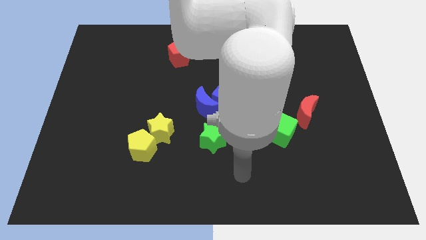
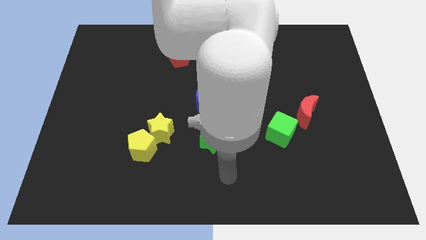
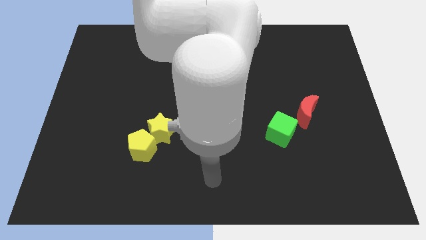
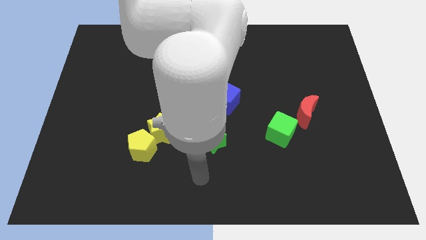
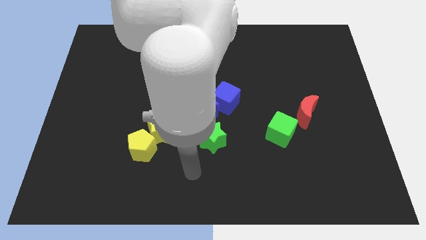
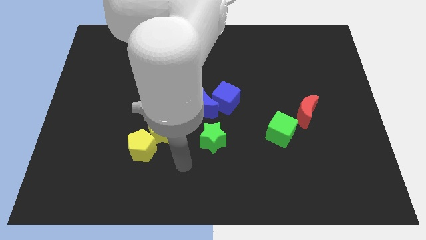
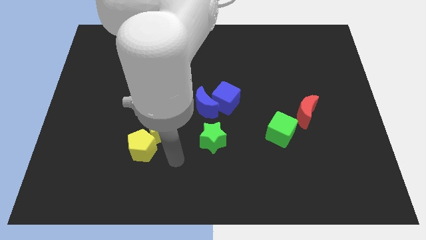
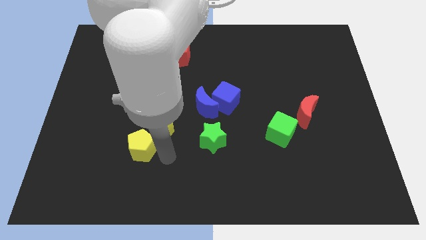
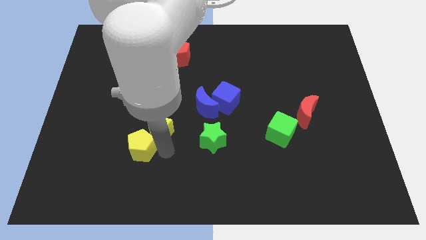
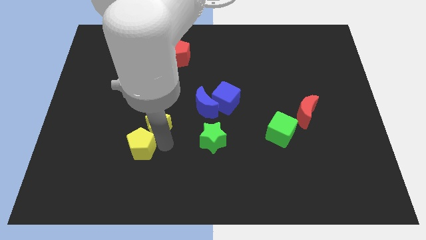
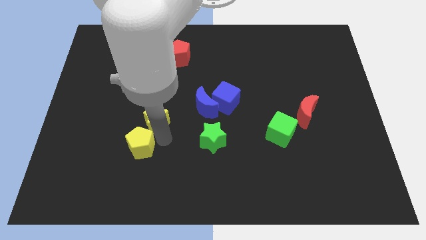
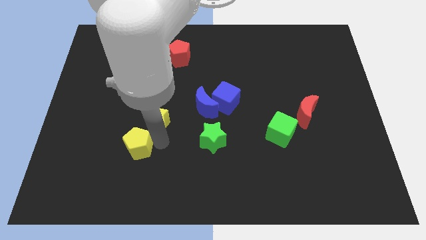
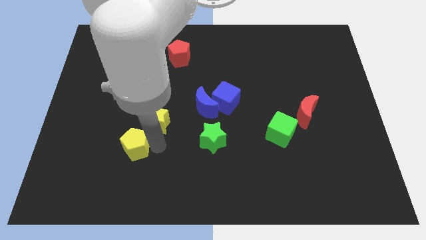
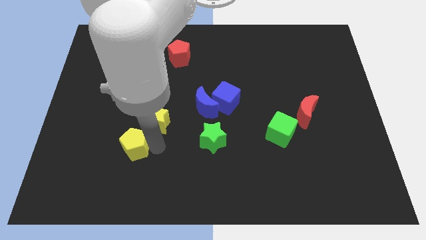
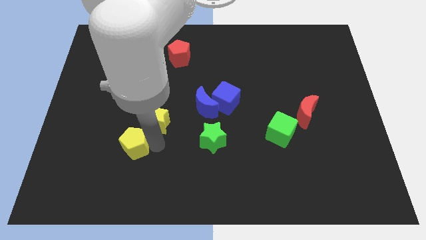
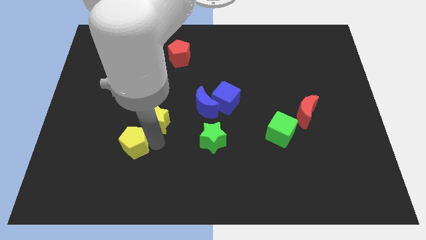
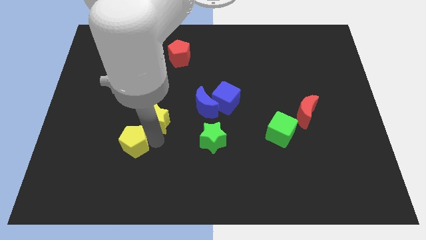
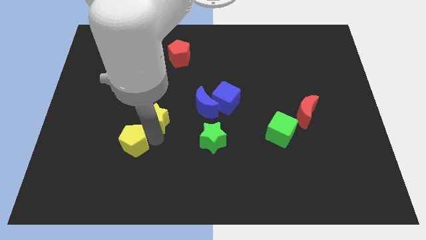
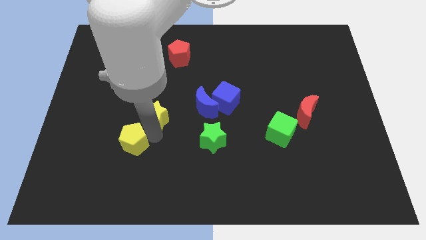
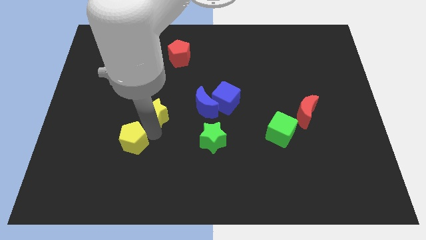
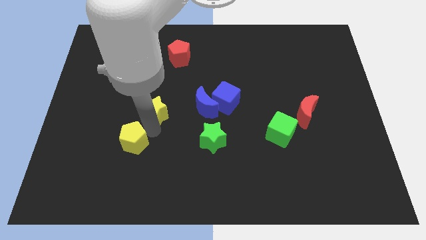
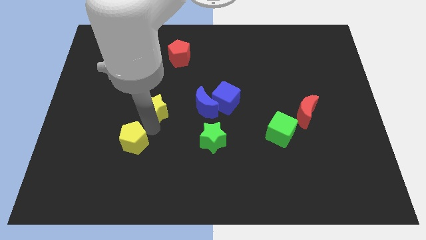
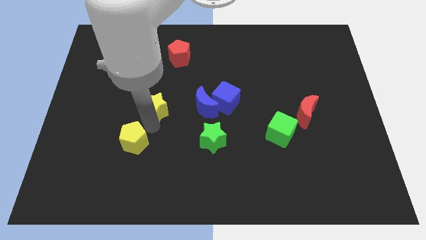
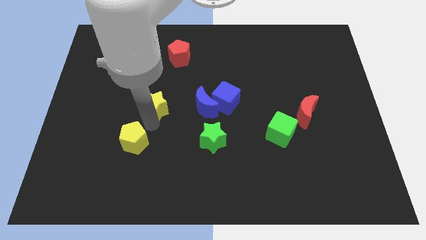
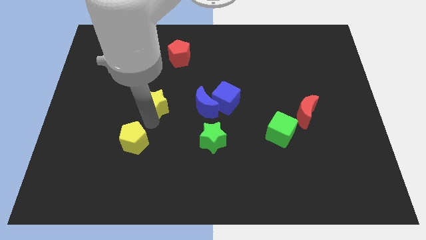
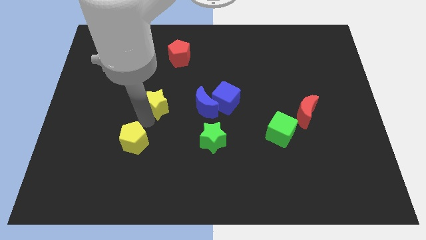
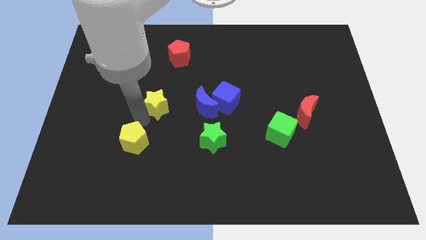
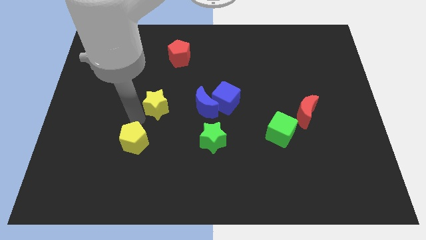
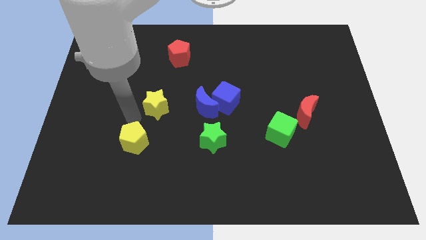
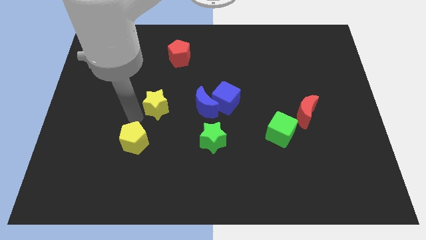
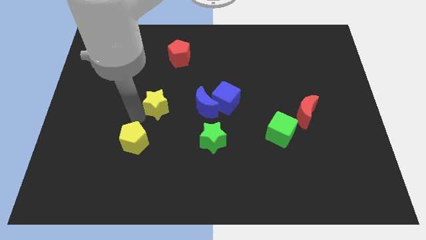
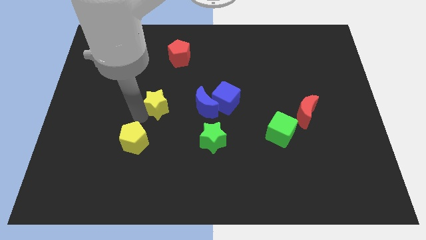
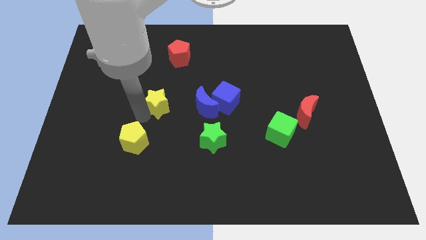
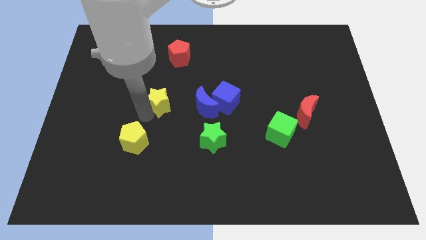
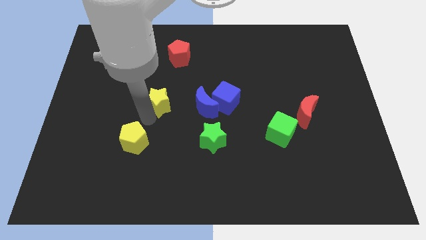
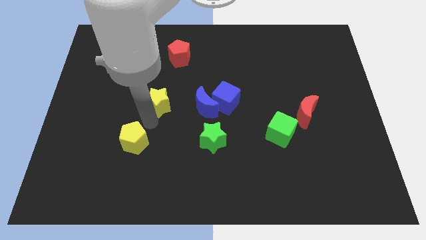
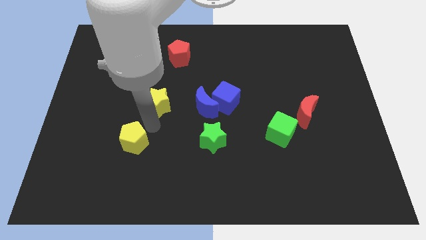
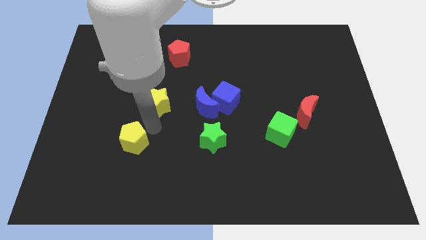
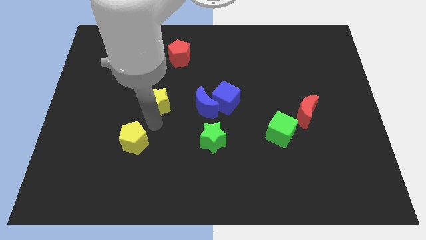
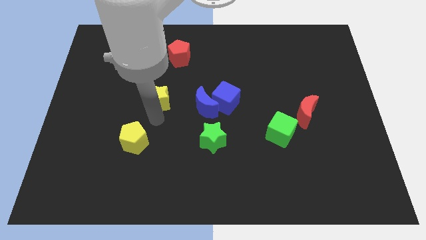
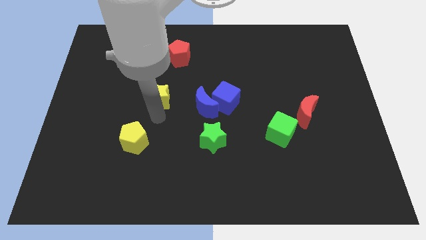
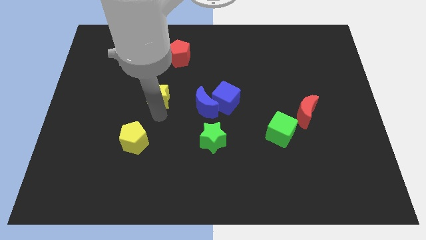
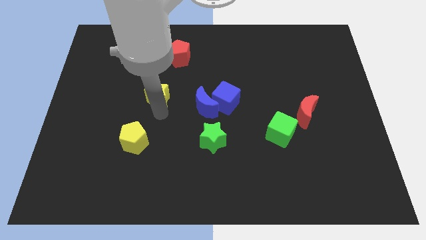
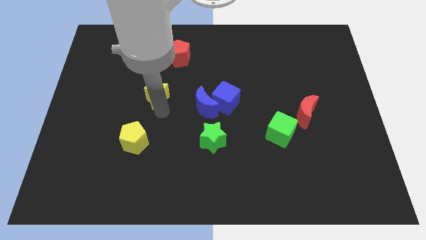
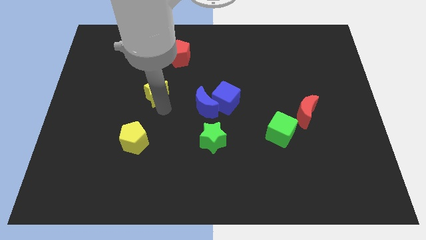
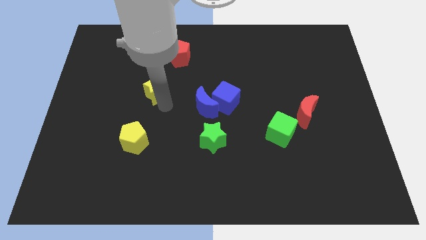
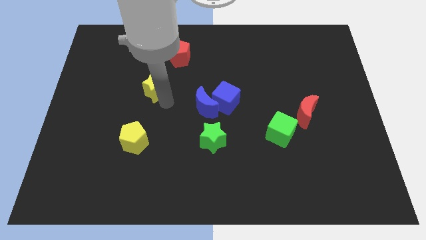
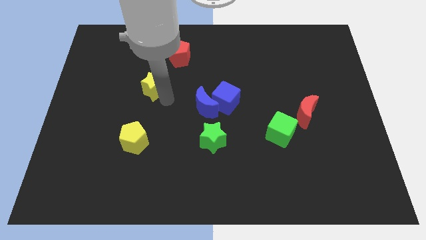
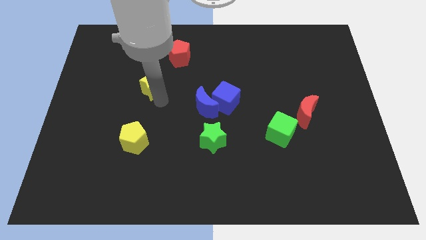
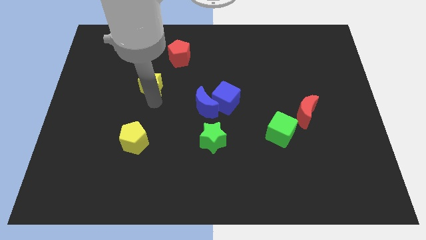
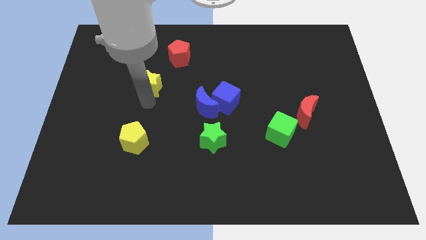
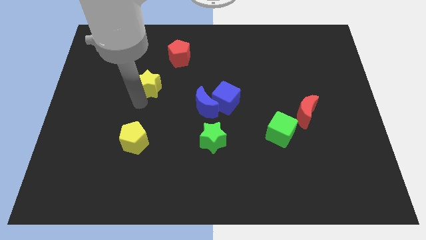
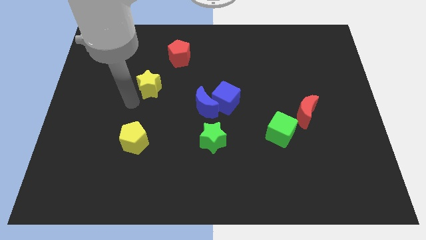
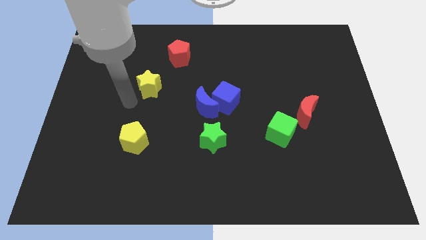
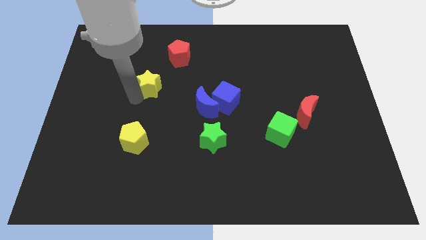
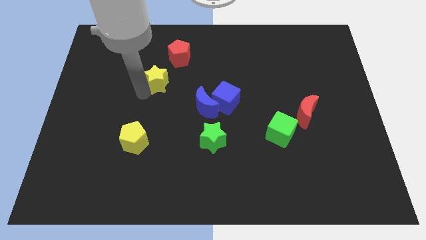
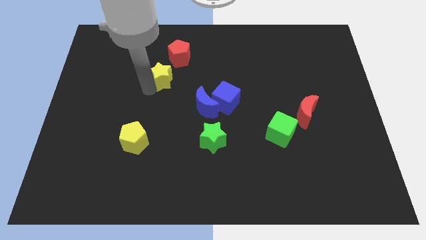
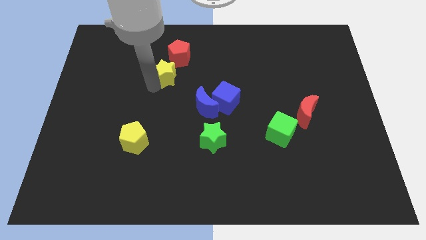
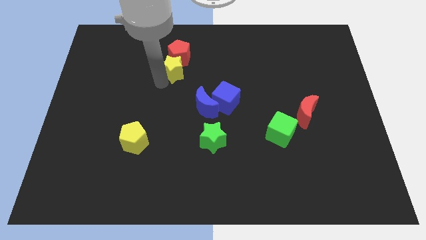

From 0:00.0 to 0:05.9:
slide the yellow star next to the red pentagon
